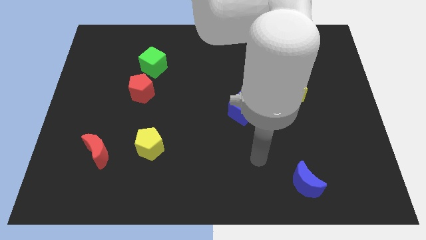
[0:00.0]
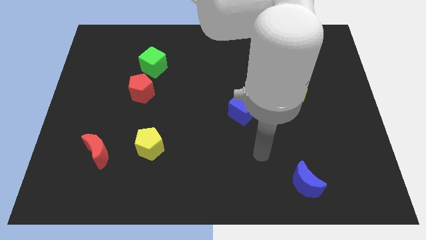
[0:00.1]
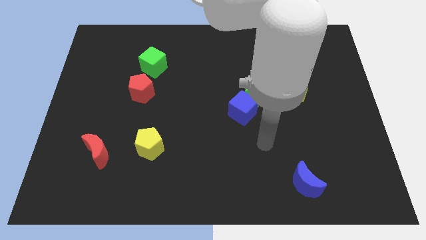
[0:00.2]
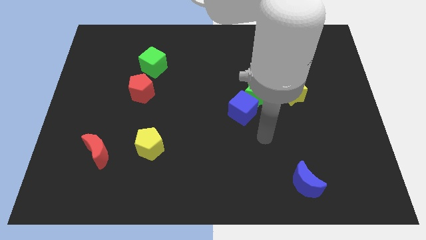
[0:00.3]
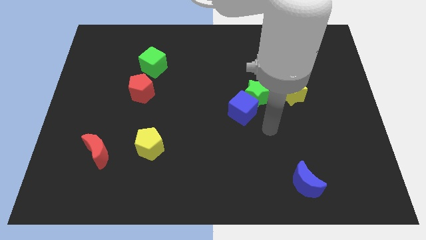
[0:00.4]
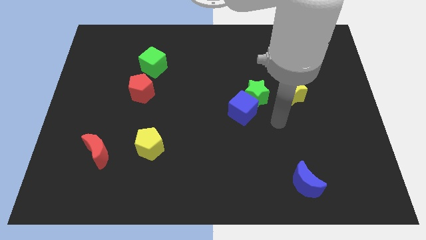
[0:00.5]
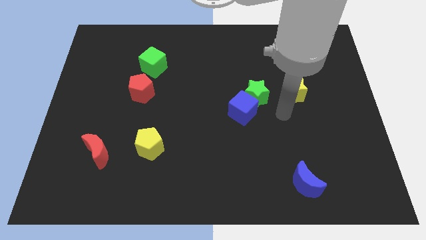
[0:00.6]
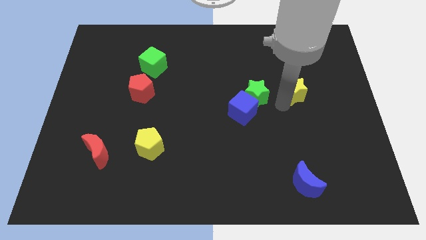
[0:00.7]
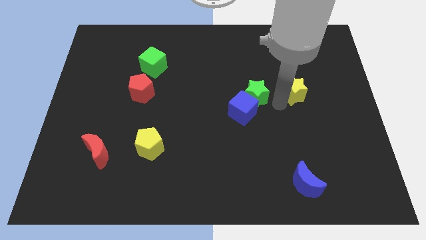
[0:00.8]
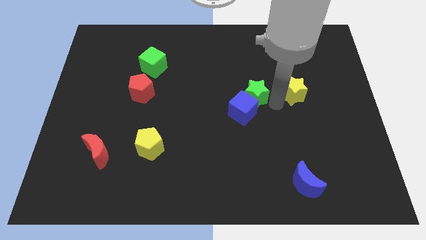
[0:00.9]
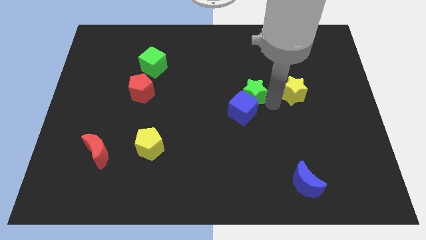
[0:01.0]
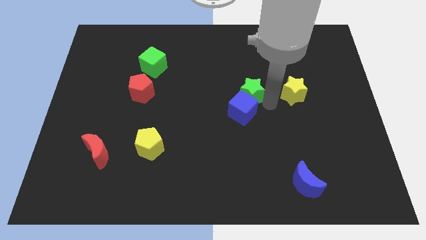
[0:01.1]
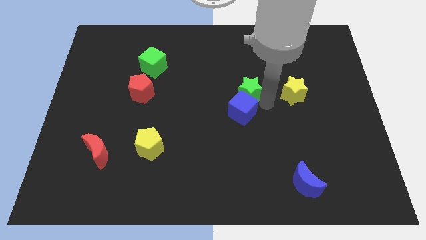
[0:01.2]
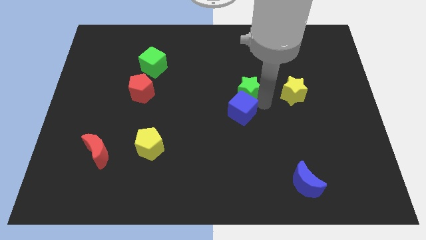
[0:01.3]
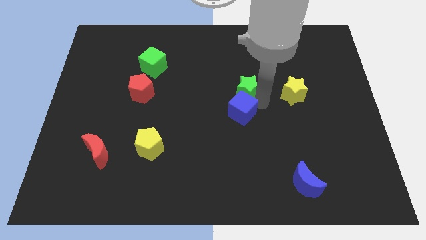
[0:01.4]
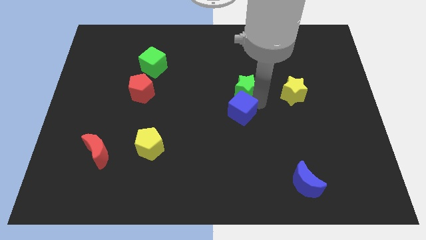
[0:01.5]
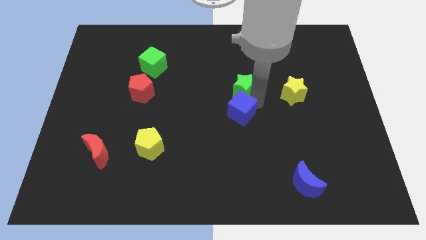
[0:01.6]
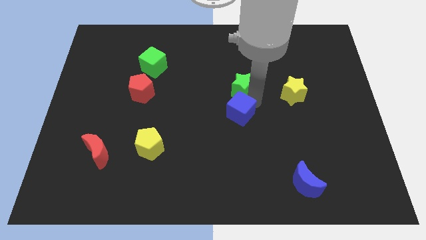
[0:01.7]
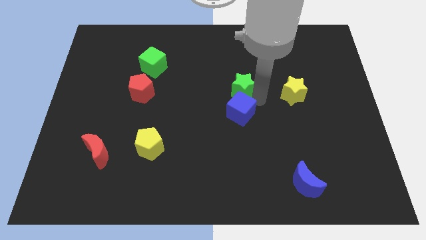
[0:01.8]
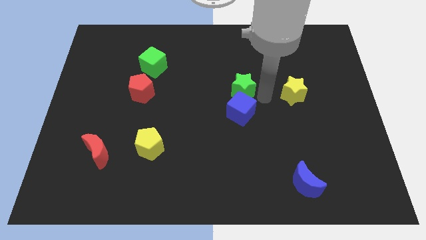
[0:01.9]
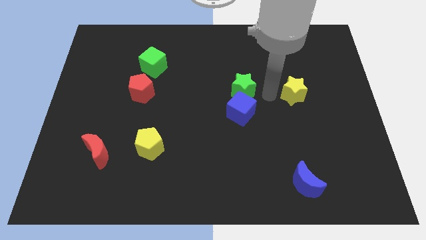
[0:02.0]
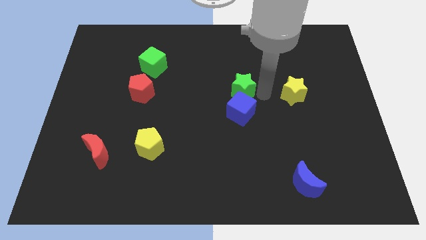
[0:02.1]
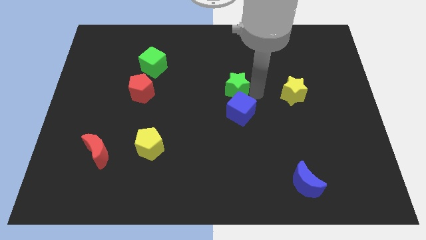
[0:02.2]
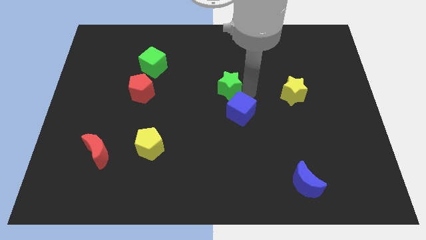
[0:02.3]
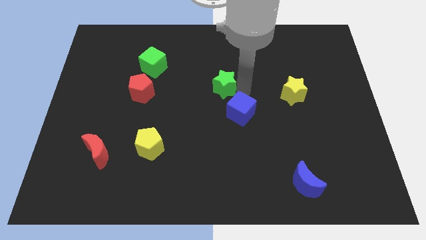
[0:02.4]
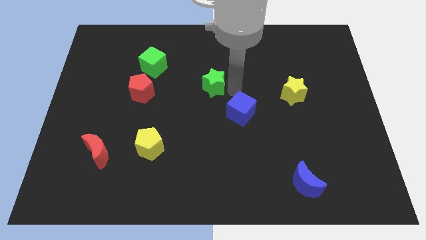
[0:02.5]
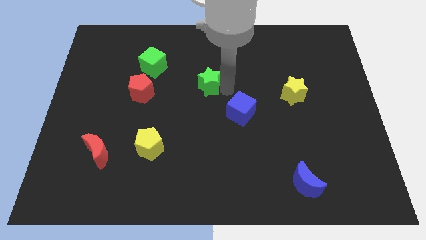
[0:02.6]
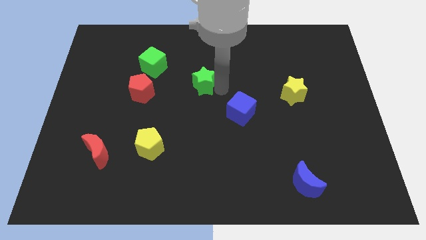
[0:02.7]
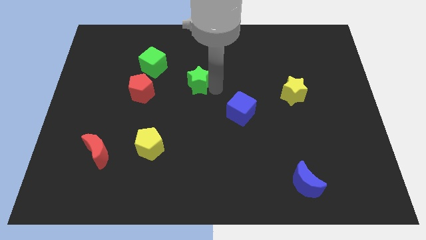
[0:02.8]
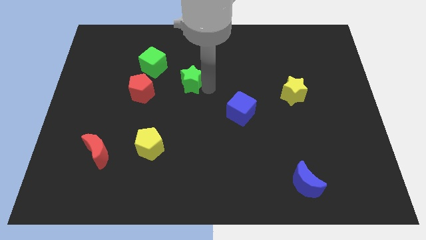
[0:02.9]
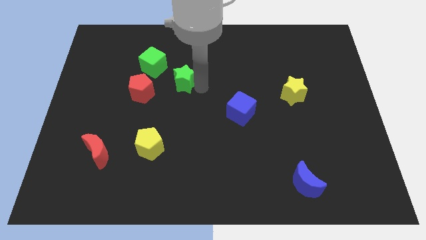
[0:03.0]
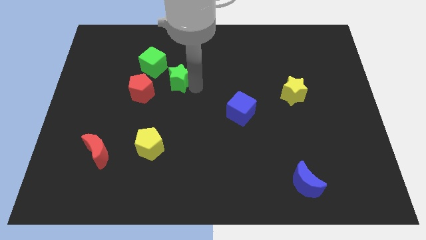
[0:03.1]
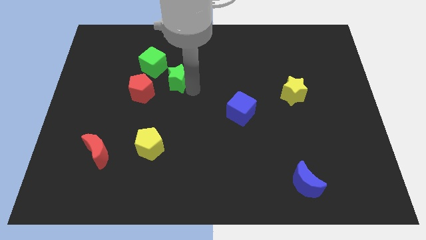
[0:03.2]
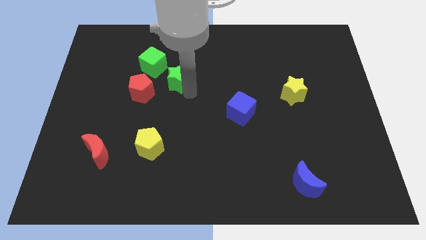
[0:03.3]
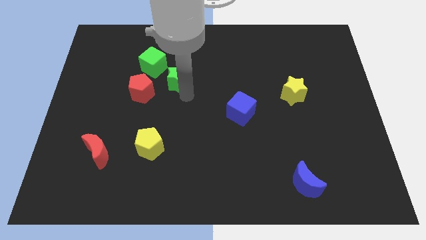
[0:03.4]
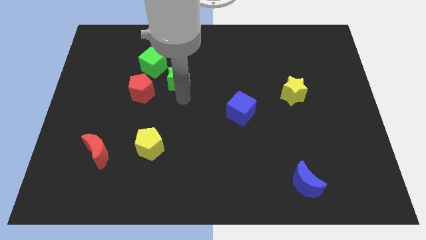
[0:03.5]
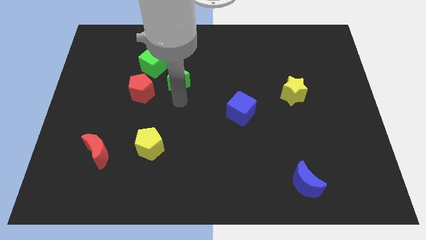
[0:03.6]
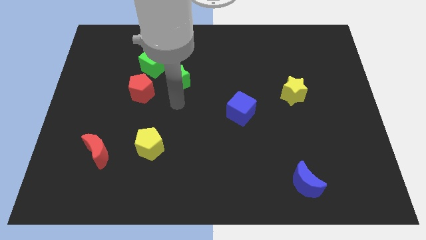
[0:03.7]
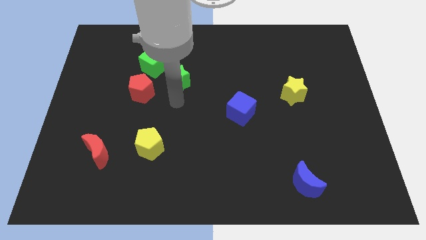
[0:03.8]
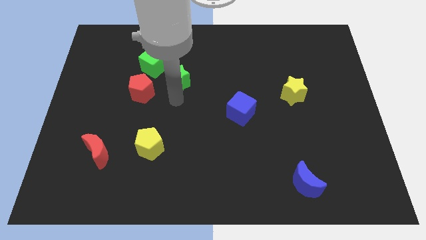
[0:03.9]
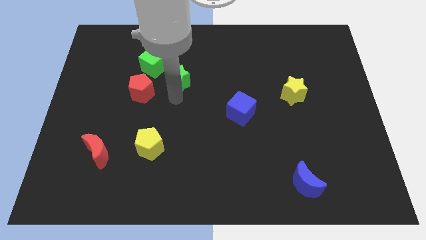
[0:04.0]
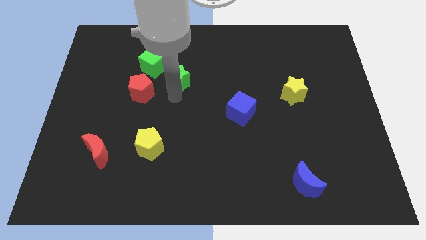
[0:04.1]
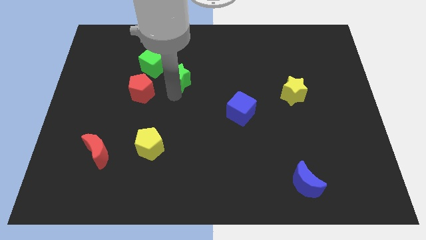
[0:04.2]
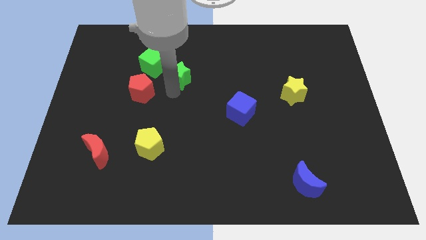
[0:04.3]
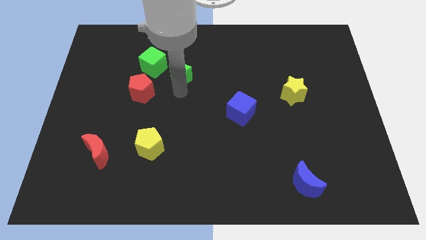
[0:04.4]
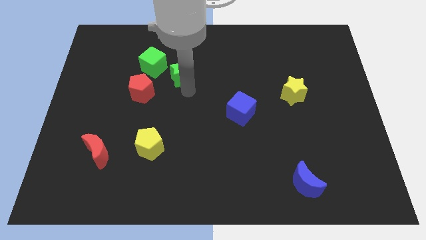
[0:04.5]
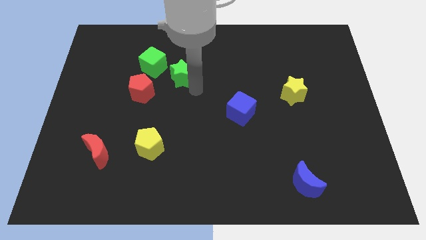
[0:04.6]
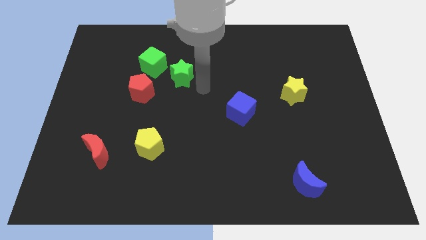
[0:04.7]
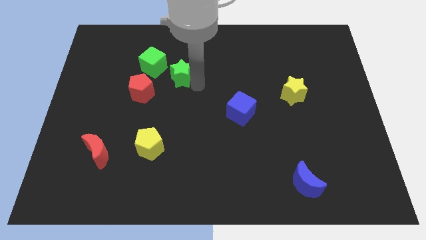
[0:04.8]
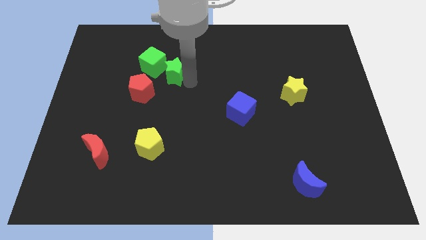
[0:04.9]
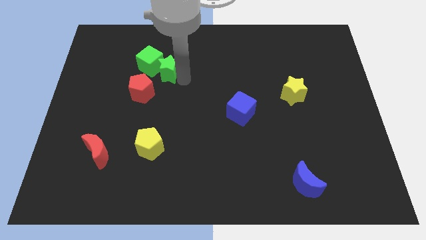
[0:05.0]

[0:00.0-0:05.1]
push the green star next to the green cube

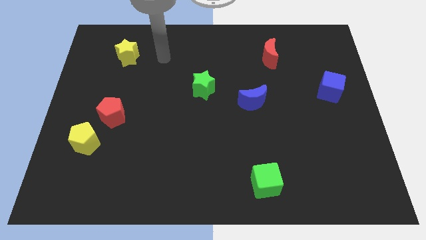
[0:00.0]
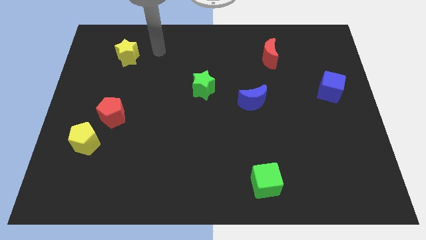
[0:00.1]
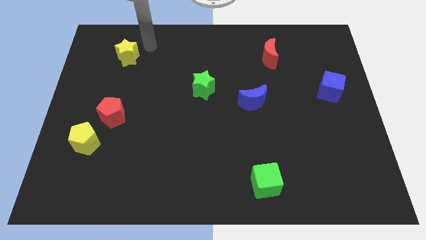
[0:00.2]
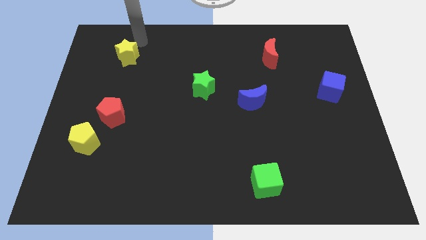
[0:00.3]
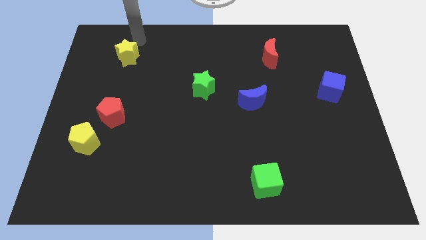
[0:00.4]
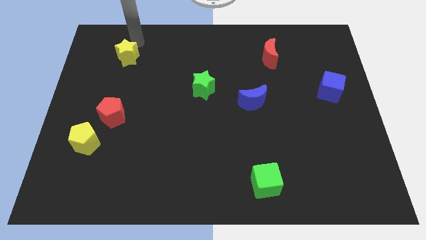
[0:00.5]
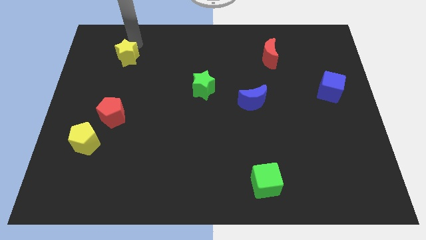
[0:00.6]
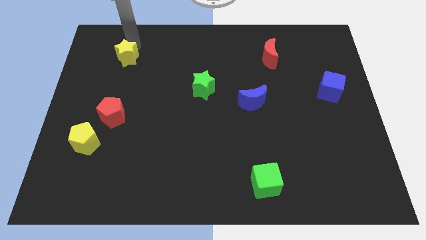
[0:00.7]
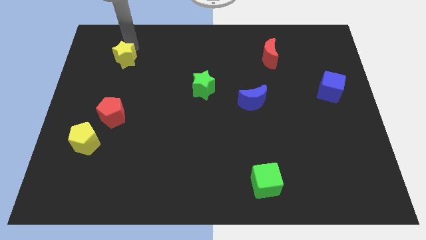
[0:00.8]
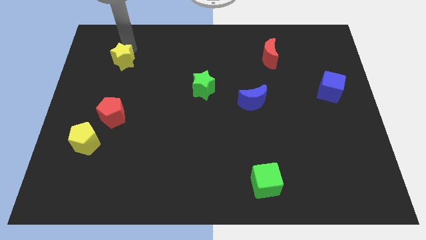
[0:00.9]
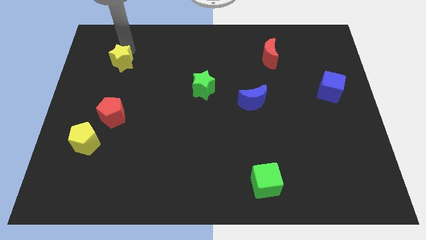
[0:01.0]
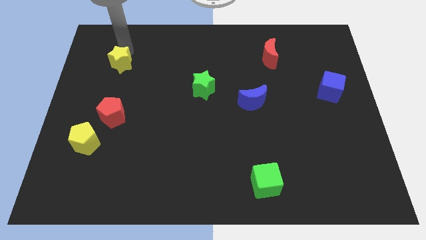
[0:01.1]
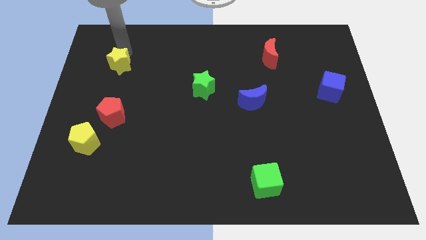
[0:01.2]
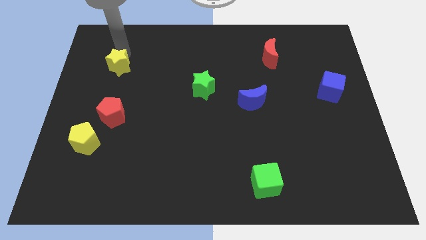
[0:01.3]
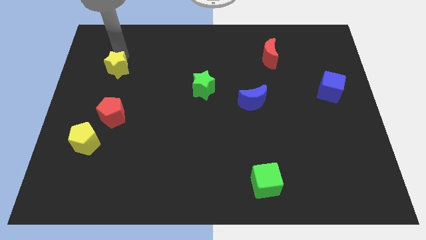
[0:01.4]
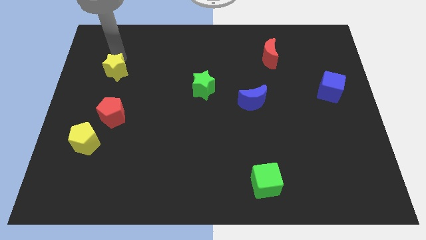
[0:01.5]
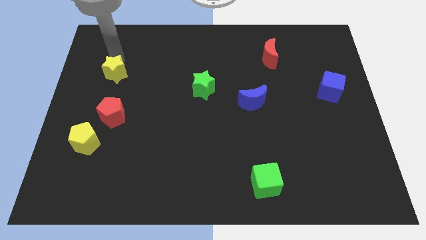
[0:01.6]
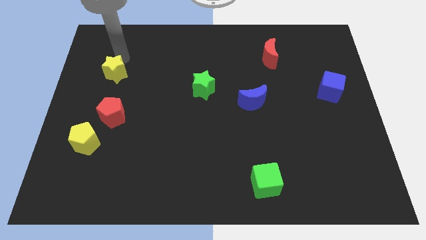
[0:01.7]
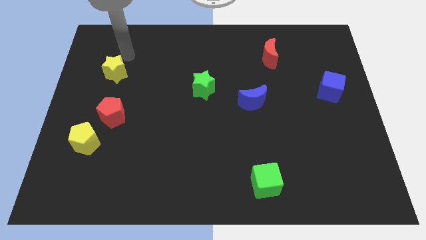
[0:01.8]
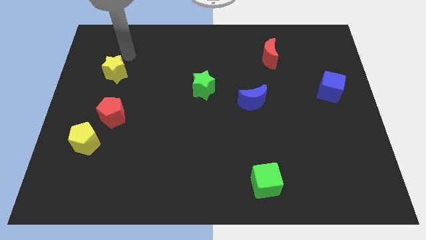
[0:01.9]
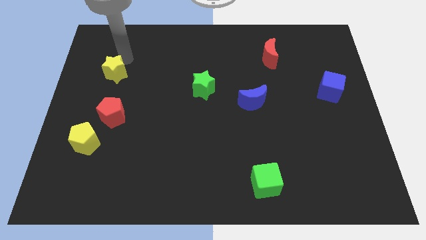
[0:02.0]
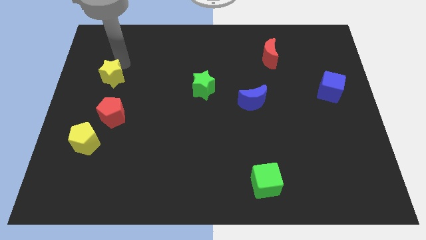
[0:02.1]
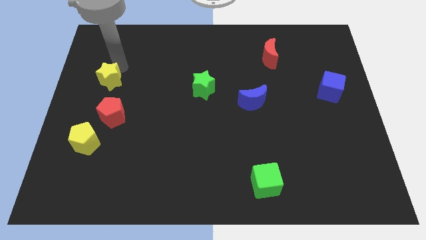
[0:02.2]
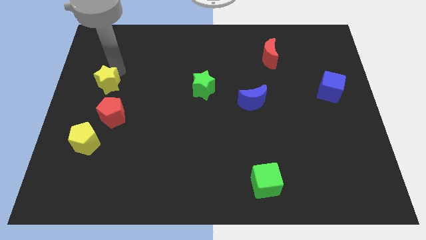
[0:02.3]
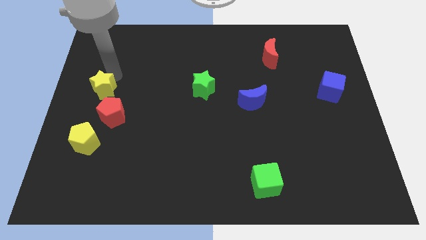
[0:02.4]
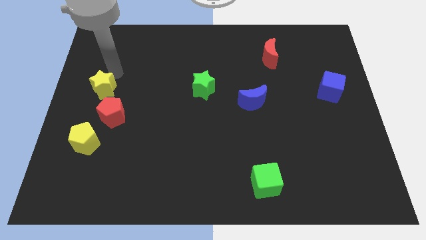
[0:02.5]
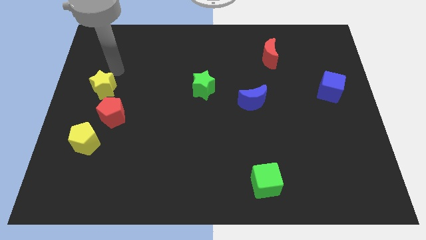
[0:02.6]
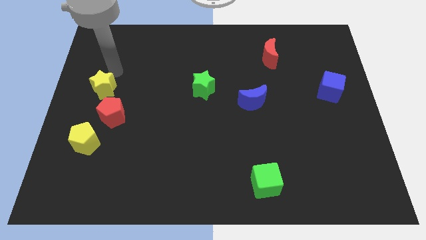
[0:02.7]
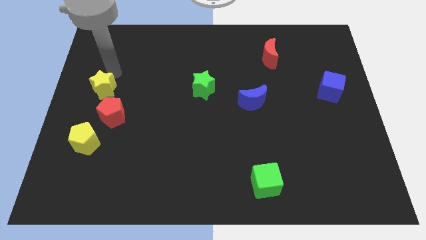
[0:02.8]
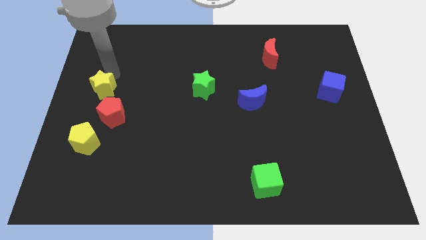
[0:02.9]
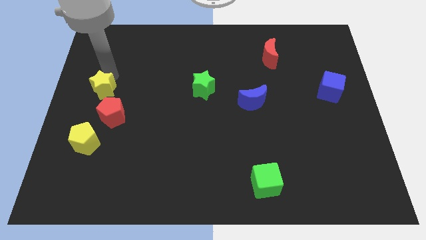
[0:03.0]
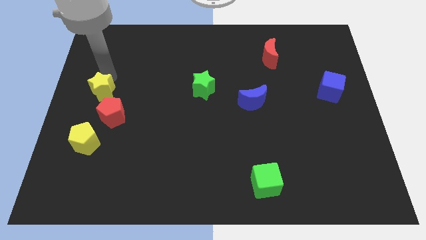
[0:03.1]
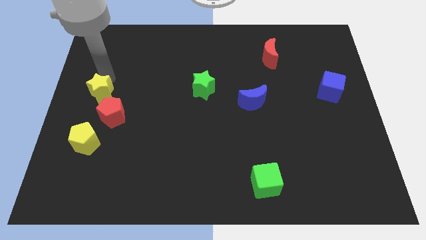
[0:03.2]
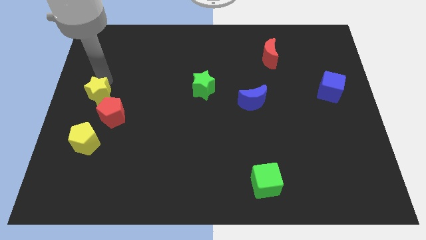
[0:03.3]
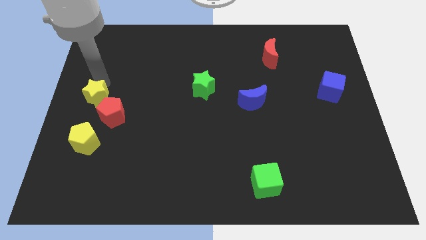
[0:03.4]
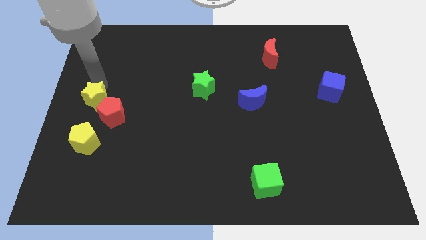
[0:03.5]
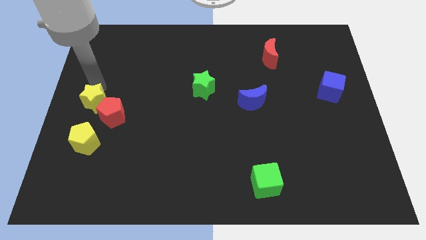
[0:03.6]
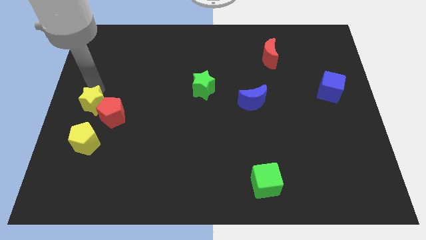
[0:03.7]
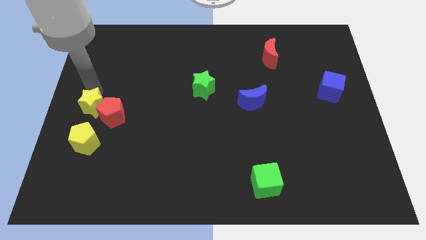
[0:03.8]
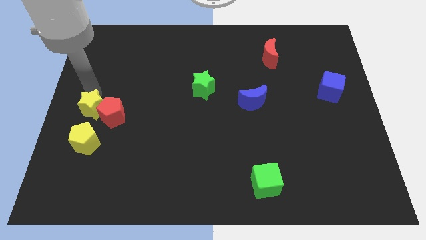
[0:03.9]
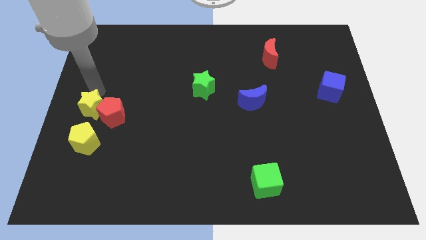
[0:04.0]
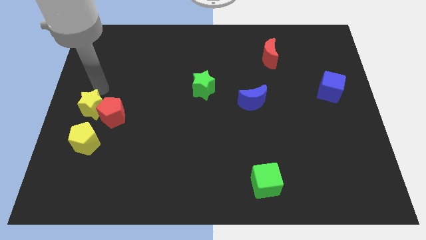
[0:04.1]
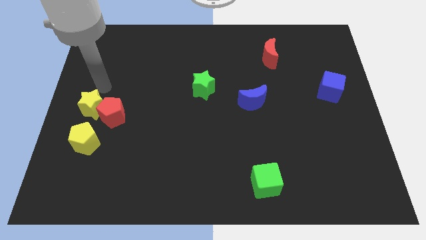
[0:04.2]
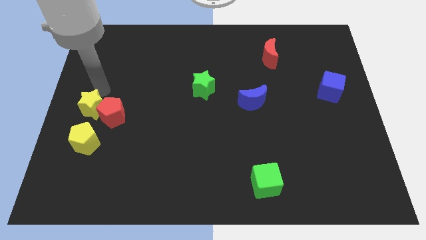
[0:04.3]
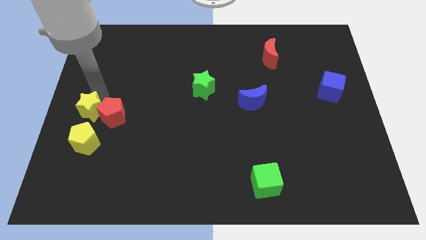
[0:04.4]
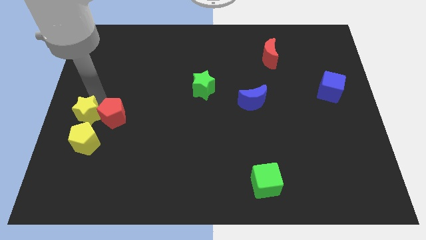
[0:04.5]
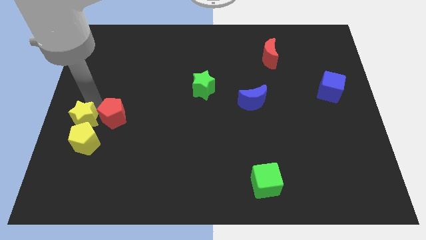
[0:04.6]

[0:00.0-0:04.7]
move the yellow star close to the yellow pentagon
